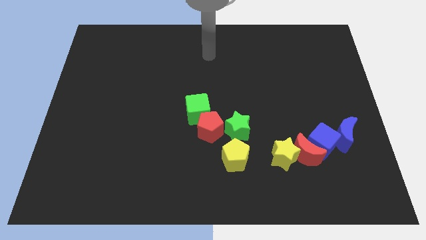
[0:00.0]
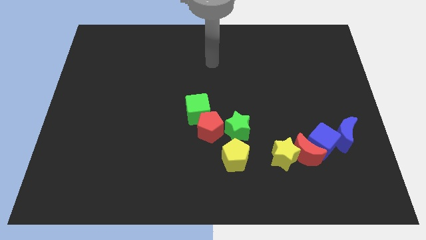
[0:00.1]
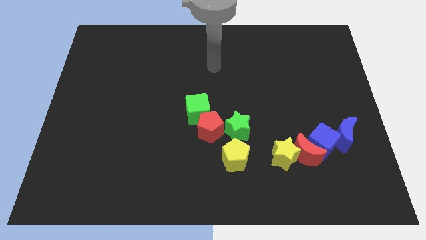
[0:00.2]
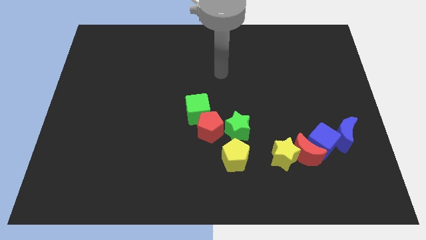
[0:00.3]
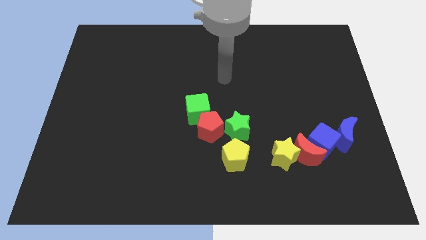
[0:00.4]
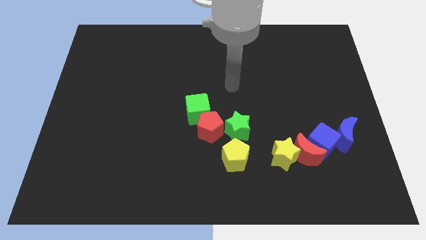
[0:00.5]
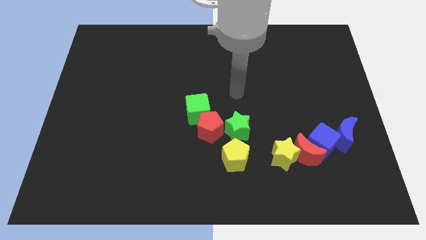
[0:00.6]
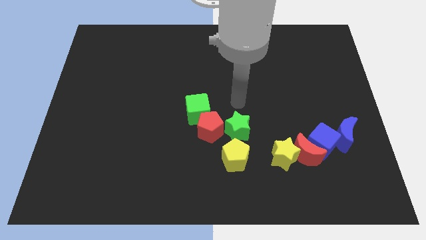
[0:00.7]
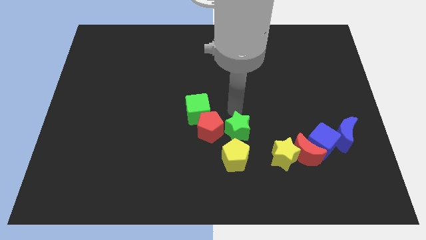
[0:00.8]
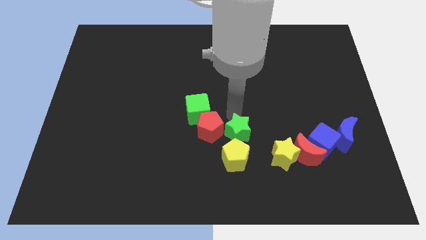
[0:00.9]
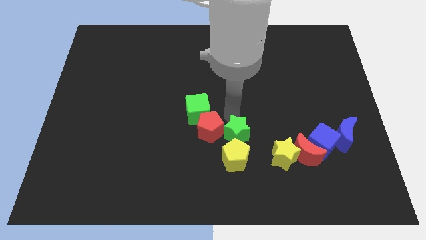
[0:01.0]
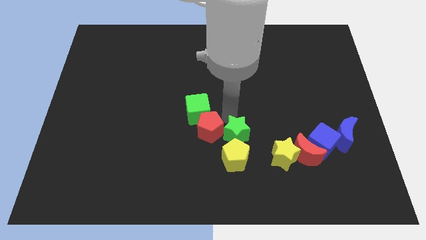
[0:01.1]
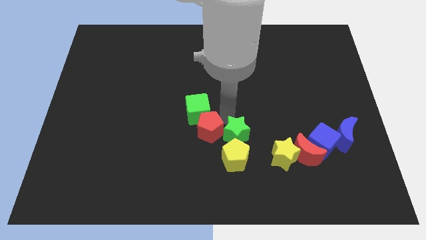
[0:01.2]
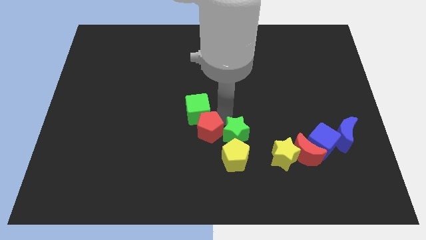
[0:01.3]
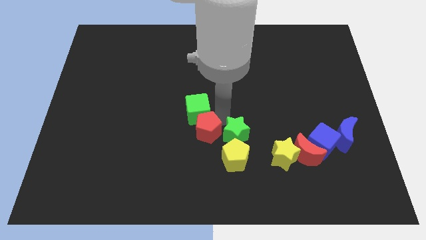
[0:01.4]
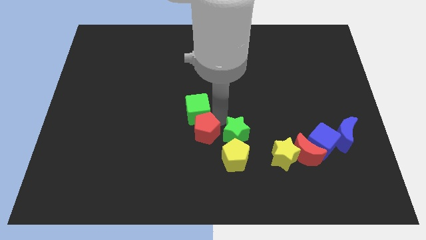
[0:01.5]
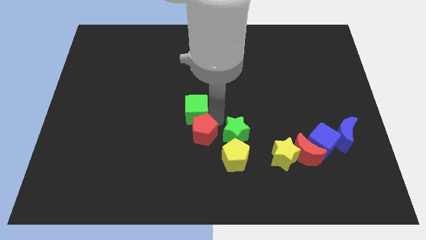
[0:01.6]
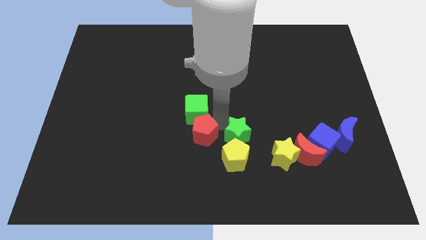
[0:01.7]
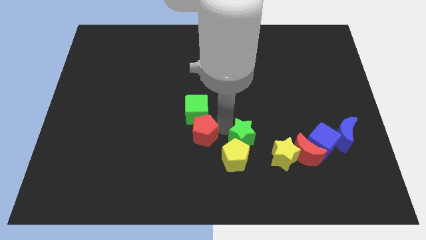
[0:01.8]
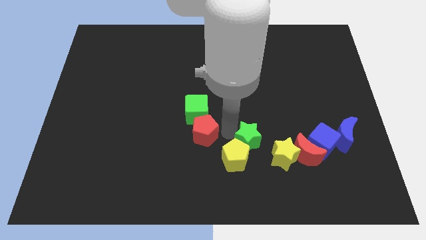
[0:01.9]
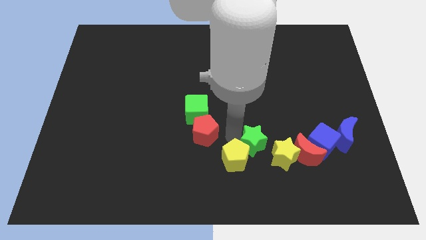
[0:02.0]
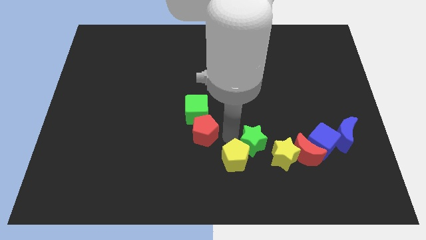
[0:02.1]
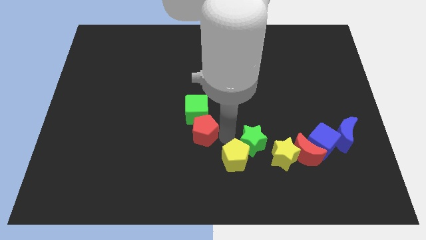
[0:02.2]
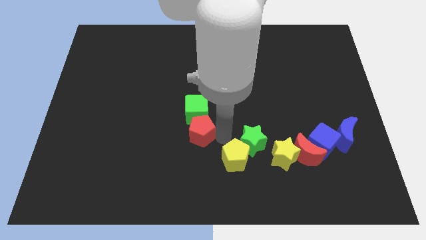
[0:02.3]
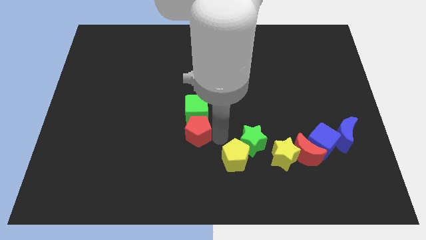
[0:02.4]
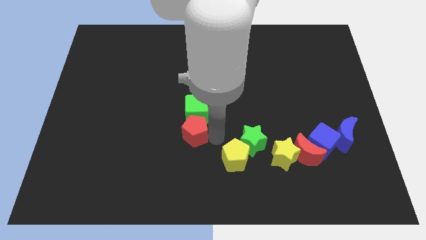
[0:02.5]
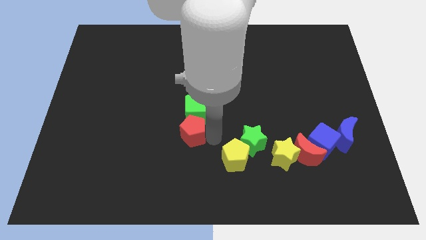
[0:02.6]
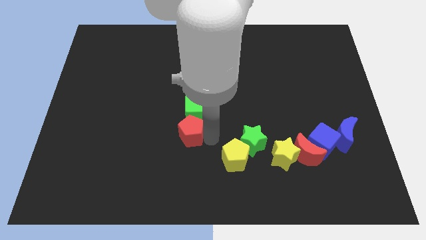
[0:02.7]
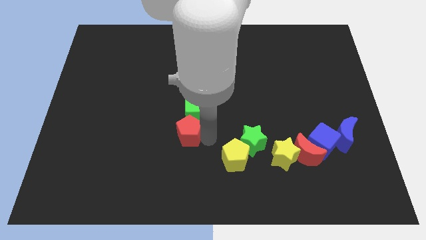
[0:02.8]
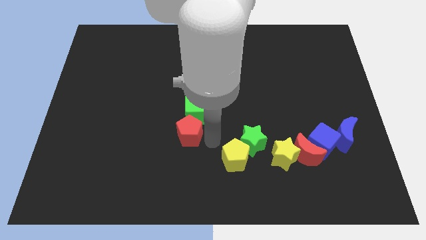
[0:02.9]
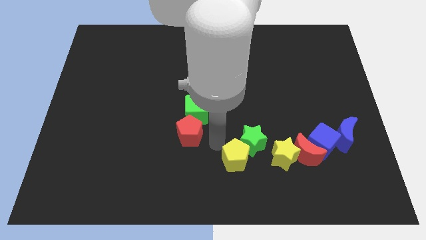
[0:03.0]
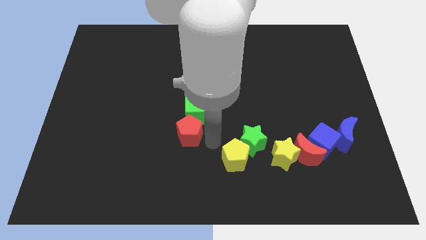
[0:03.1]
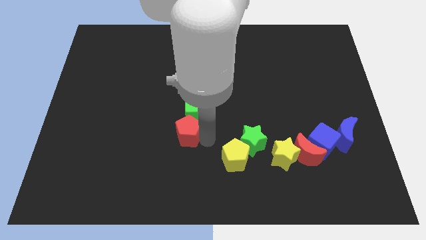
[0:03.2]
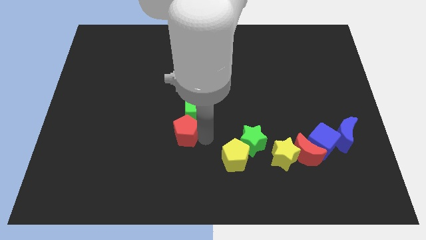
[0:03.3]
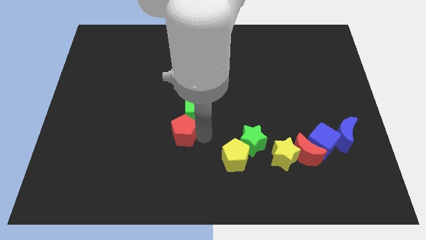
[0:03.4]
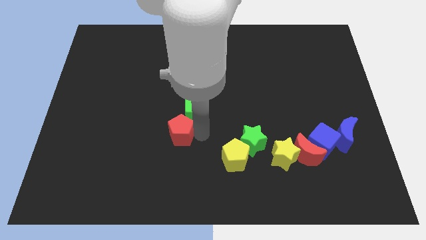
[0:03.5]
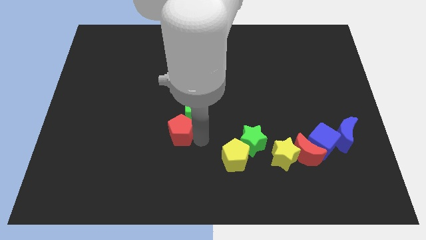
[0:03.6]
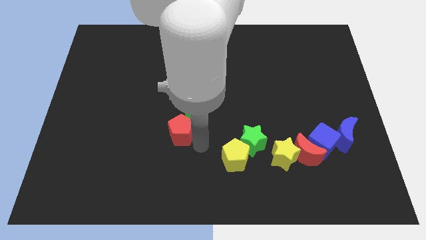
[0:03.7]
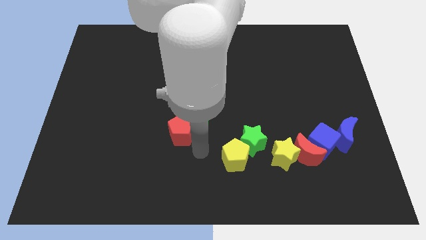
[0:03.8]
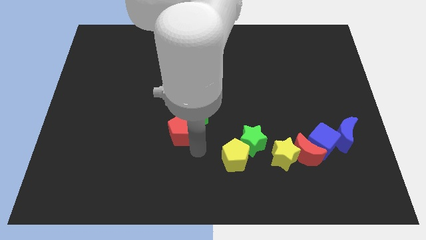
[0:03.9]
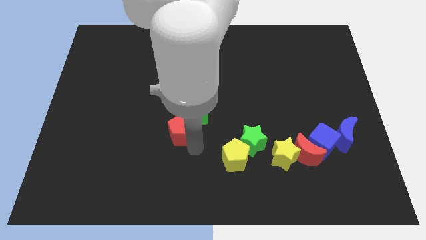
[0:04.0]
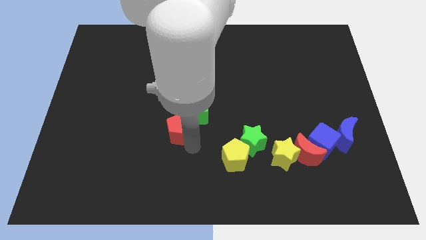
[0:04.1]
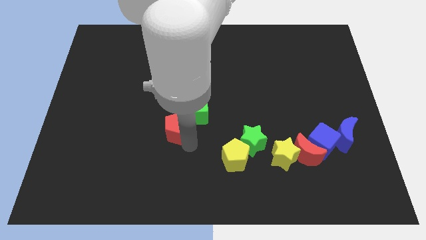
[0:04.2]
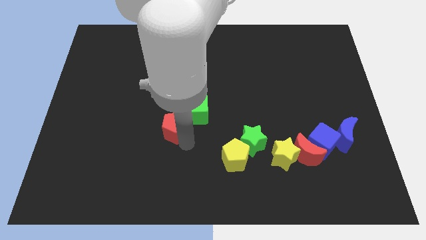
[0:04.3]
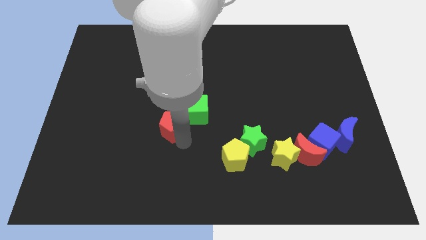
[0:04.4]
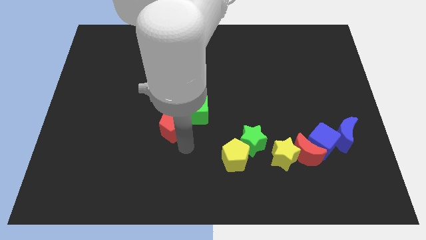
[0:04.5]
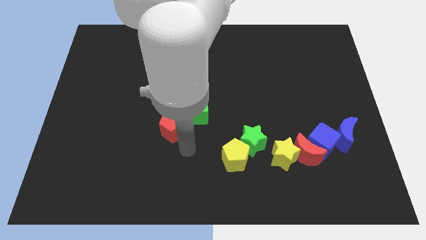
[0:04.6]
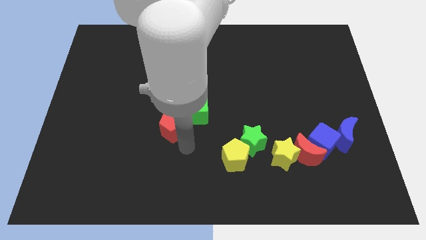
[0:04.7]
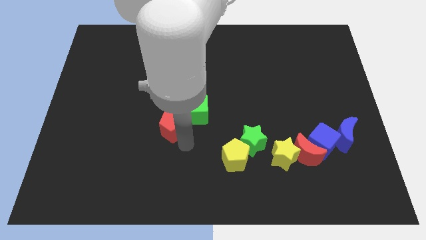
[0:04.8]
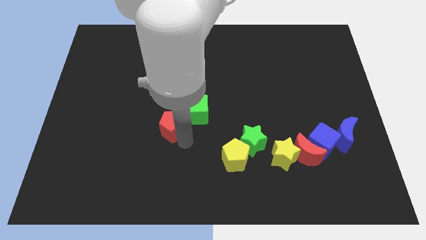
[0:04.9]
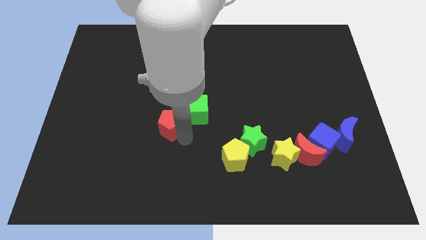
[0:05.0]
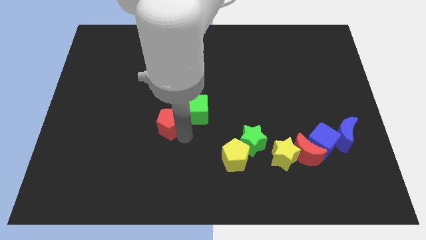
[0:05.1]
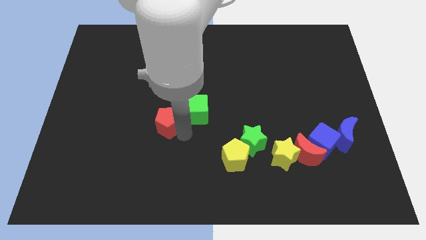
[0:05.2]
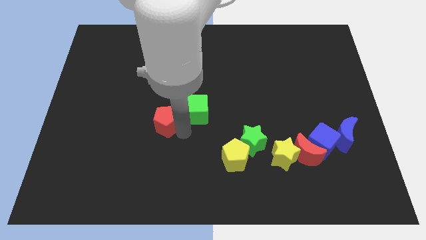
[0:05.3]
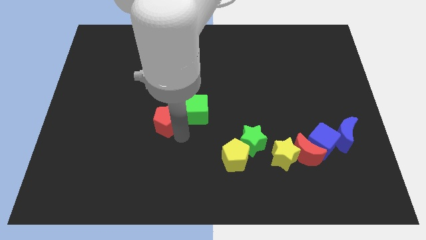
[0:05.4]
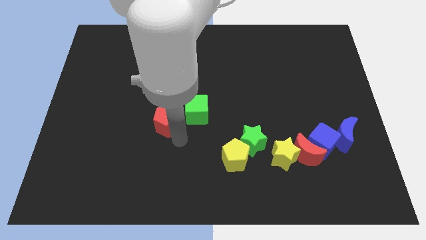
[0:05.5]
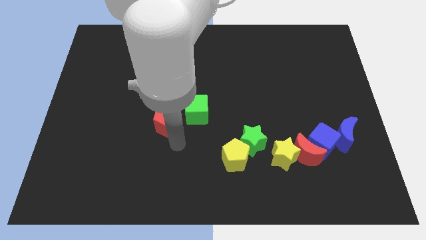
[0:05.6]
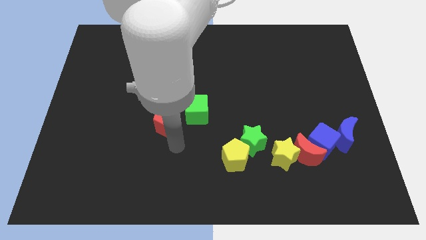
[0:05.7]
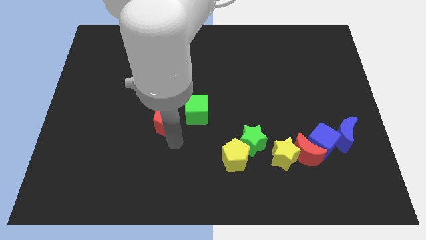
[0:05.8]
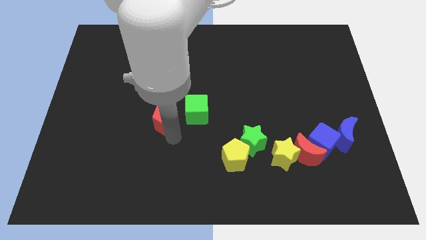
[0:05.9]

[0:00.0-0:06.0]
move the red pentagon somewhat up and to the left

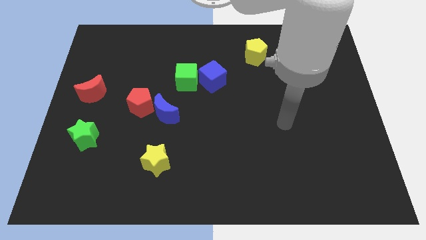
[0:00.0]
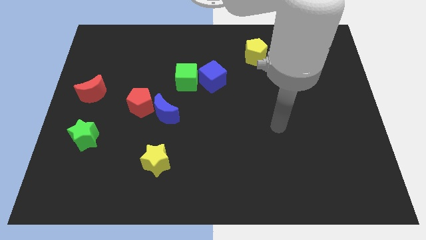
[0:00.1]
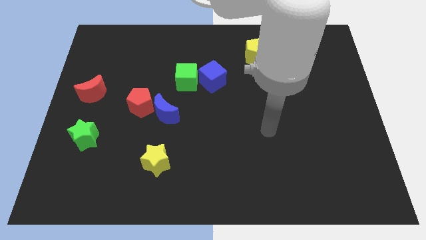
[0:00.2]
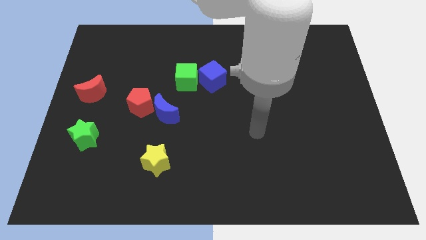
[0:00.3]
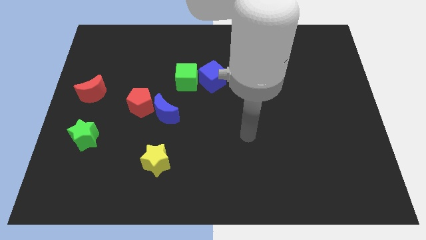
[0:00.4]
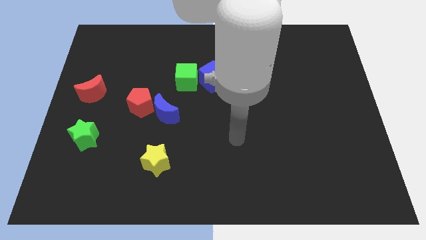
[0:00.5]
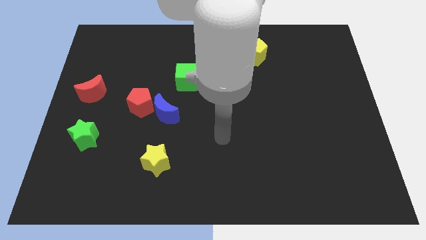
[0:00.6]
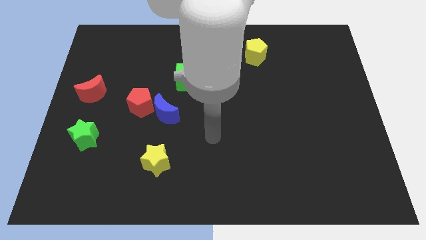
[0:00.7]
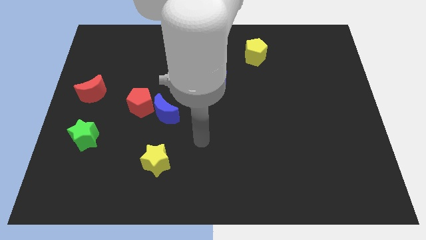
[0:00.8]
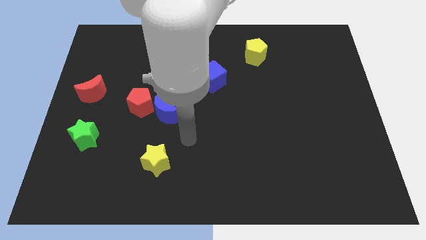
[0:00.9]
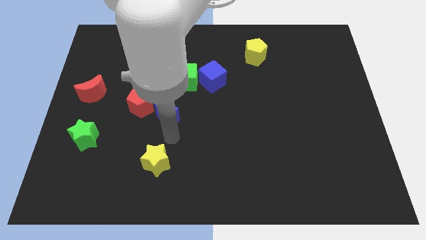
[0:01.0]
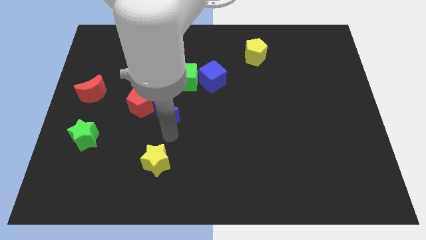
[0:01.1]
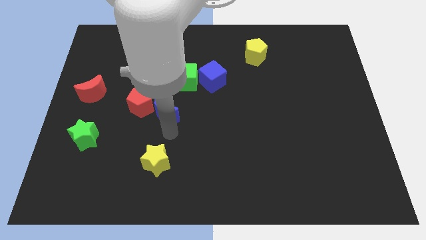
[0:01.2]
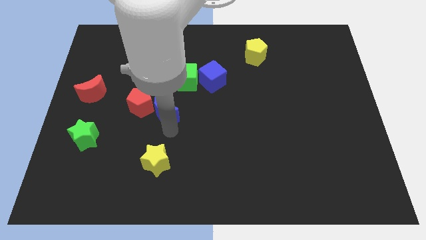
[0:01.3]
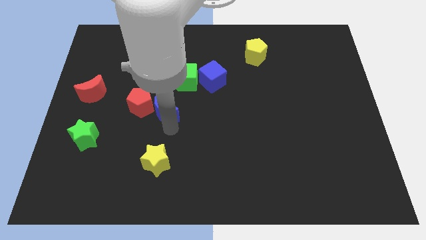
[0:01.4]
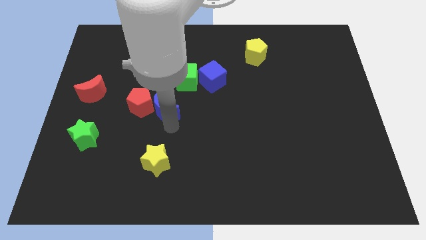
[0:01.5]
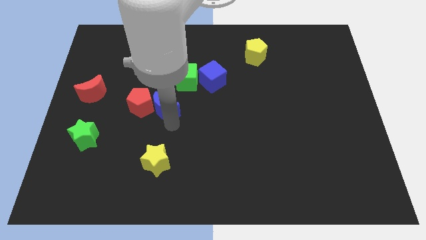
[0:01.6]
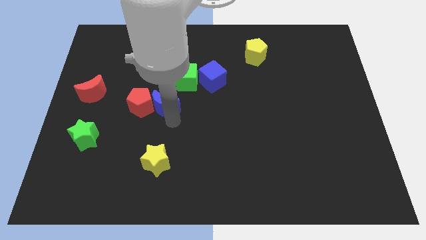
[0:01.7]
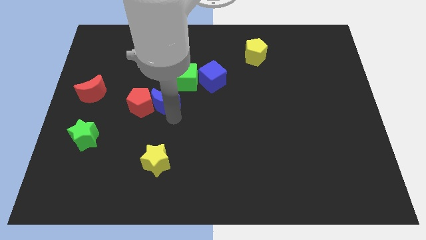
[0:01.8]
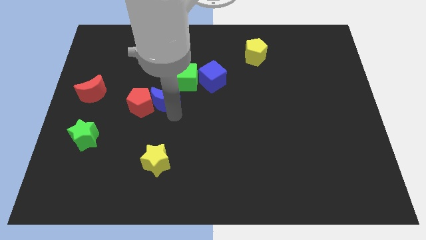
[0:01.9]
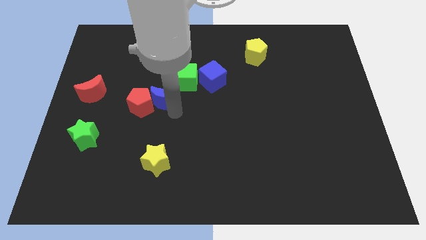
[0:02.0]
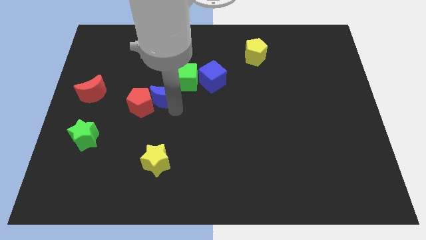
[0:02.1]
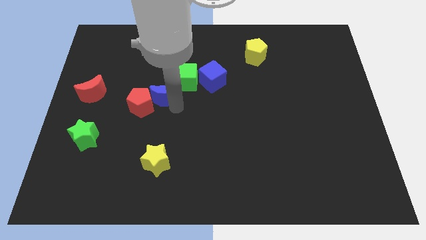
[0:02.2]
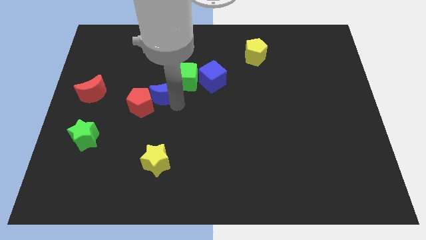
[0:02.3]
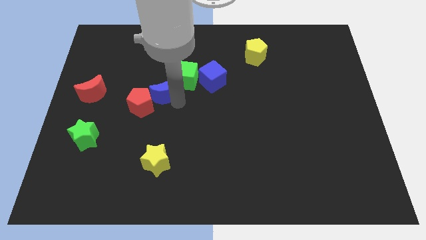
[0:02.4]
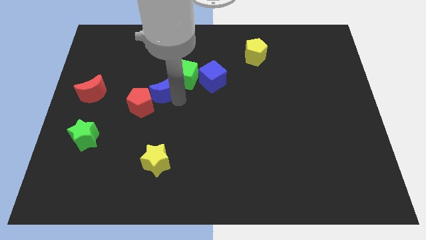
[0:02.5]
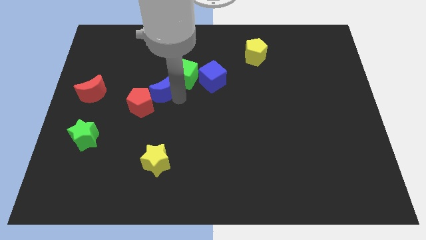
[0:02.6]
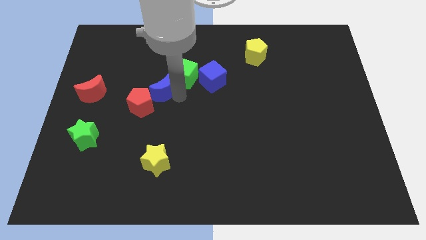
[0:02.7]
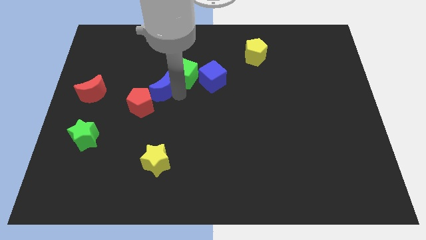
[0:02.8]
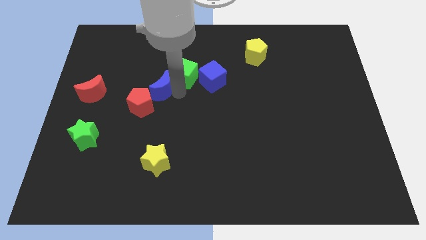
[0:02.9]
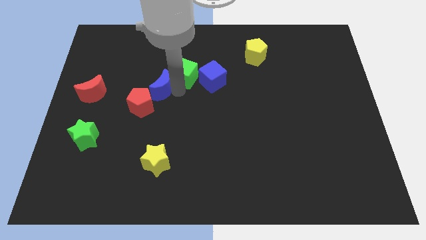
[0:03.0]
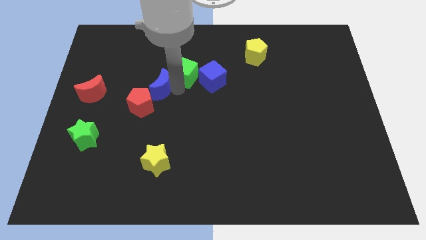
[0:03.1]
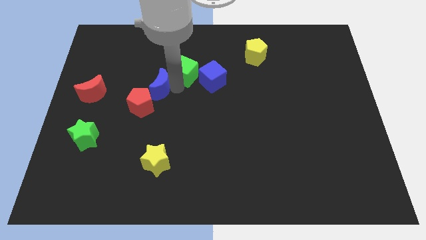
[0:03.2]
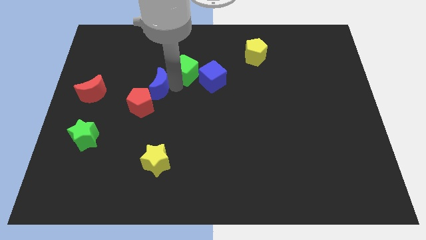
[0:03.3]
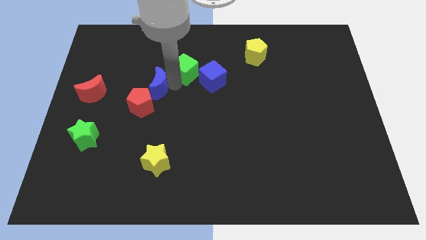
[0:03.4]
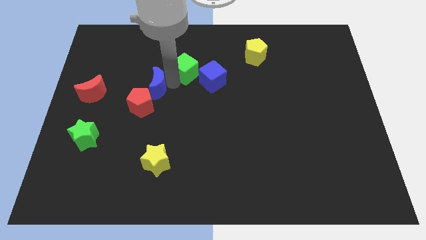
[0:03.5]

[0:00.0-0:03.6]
push the blue moon up and left diagonally slightly
